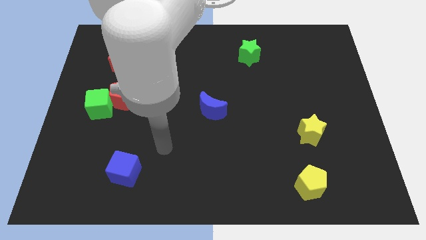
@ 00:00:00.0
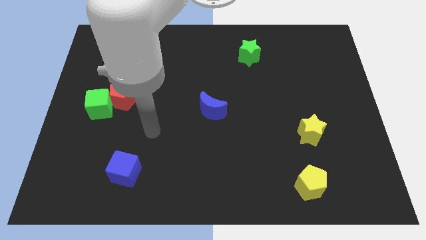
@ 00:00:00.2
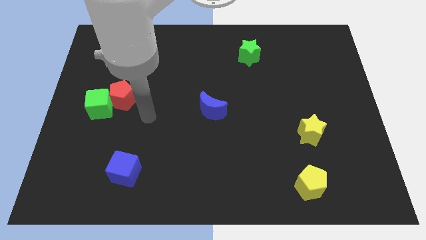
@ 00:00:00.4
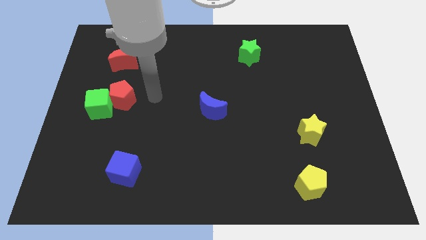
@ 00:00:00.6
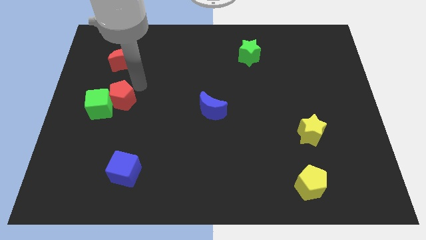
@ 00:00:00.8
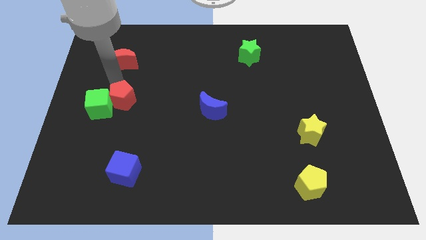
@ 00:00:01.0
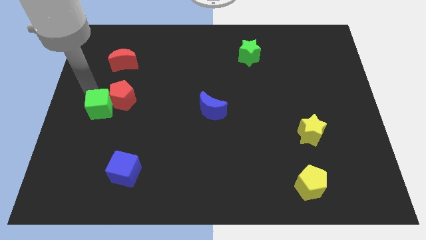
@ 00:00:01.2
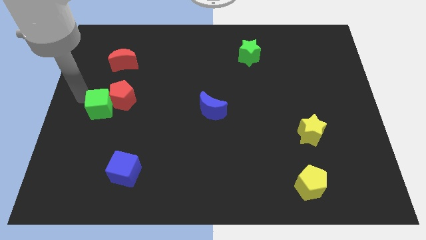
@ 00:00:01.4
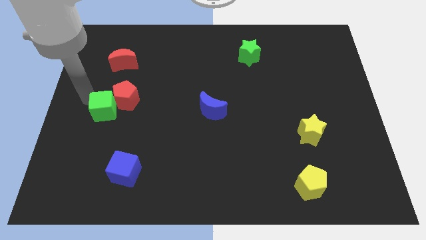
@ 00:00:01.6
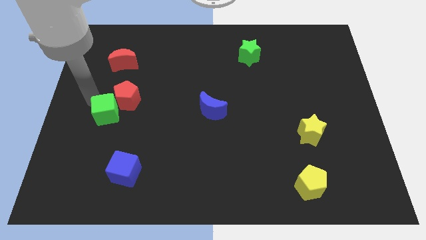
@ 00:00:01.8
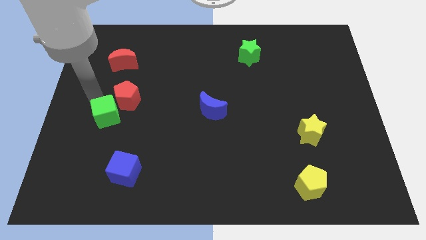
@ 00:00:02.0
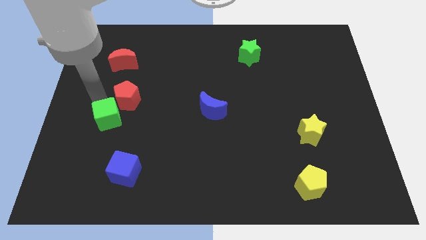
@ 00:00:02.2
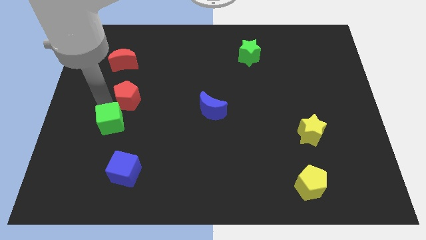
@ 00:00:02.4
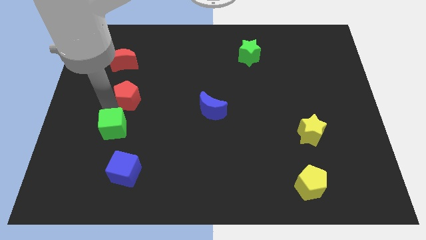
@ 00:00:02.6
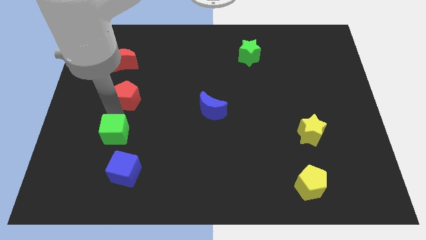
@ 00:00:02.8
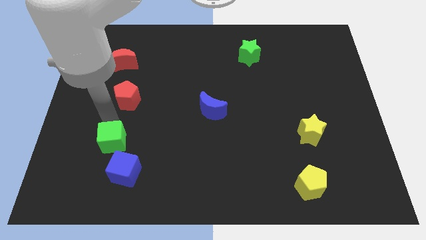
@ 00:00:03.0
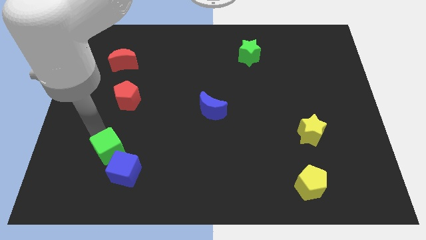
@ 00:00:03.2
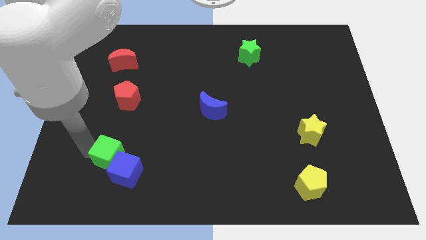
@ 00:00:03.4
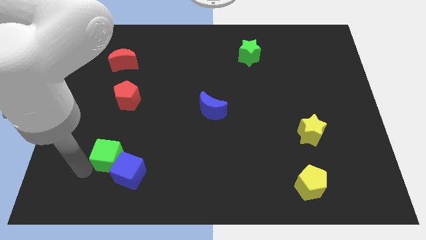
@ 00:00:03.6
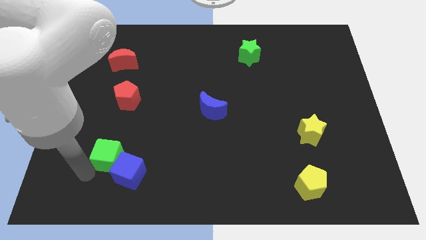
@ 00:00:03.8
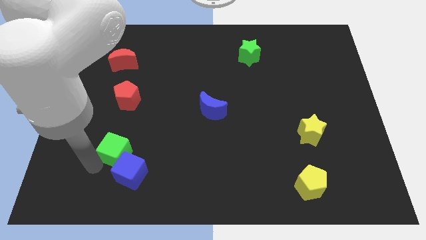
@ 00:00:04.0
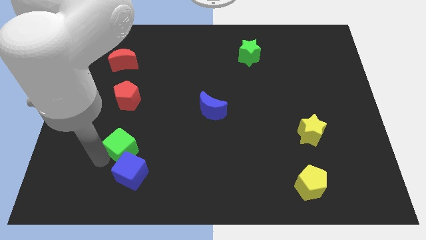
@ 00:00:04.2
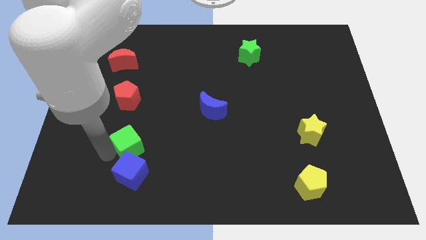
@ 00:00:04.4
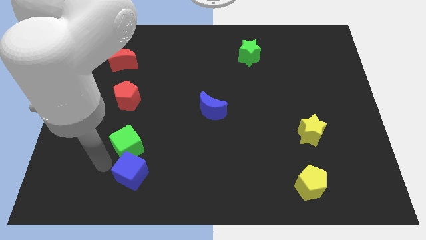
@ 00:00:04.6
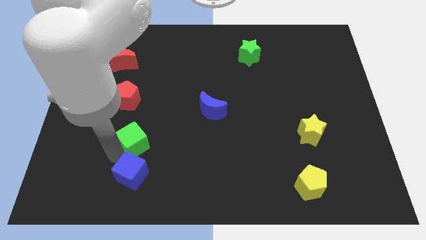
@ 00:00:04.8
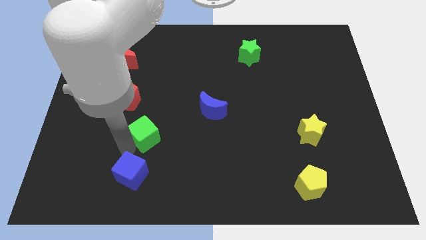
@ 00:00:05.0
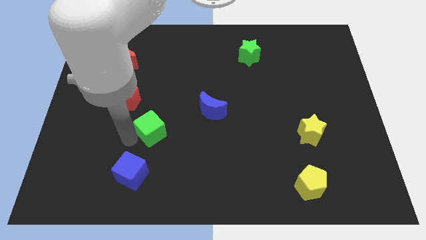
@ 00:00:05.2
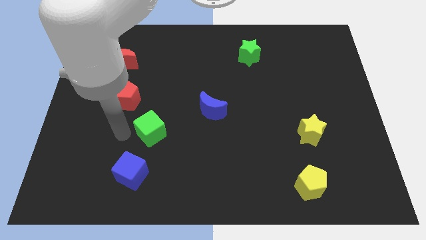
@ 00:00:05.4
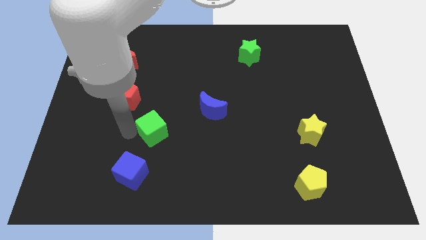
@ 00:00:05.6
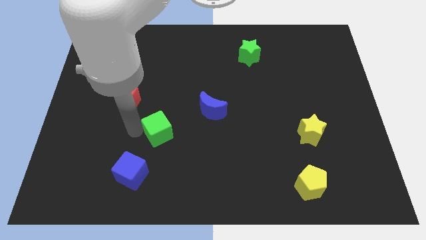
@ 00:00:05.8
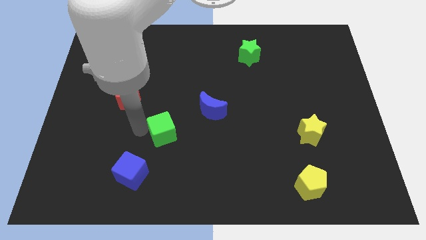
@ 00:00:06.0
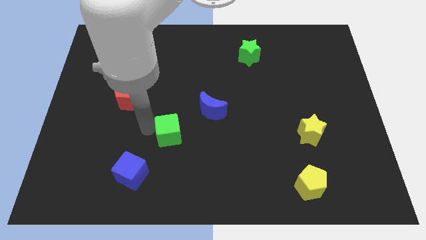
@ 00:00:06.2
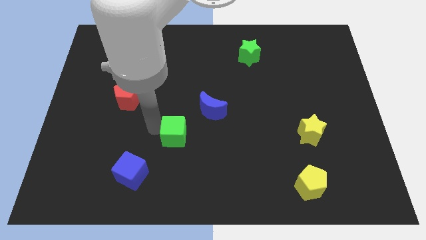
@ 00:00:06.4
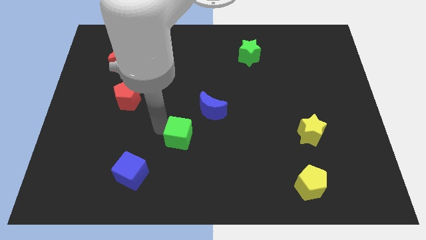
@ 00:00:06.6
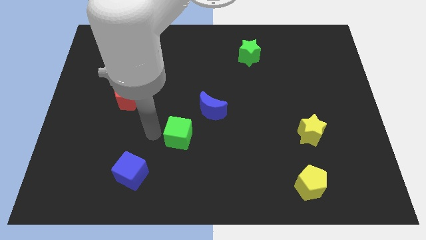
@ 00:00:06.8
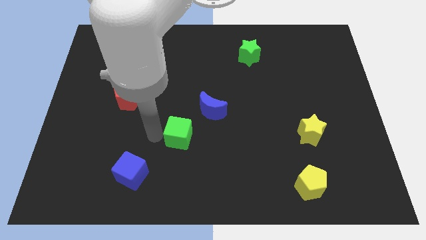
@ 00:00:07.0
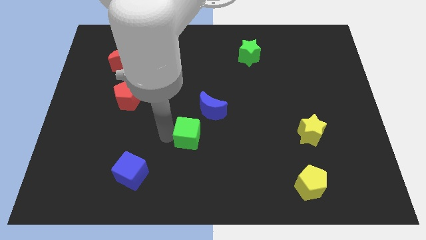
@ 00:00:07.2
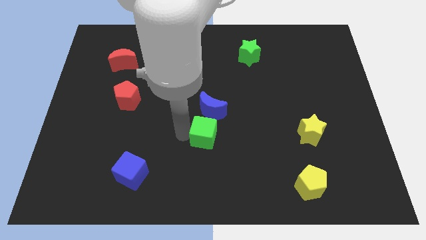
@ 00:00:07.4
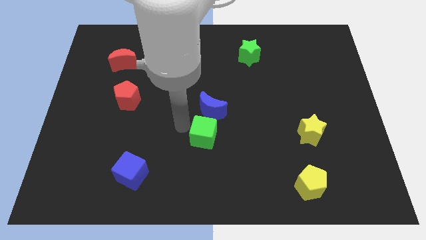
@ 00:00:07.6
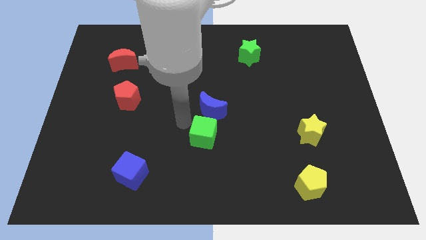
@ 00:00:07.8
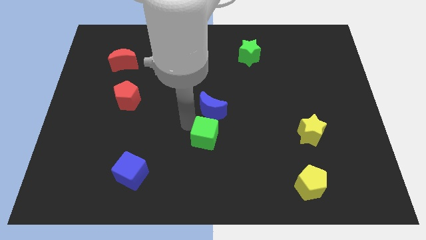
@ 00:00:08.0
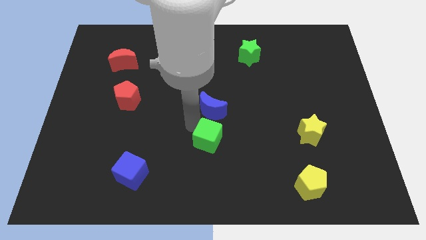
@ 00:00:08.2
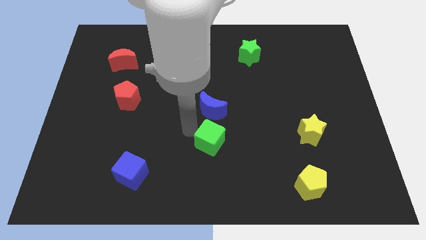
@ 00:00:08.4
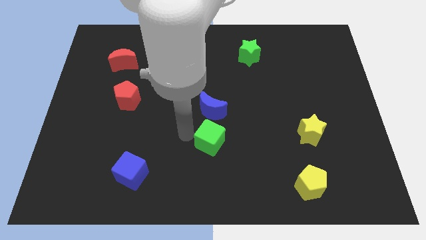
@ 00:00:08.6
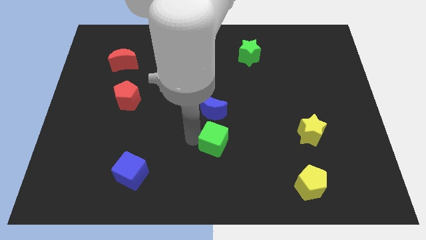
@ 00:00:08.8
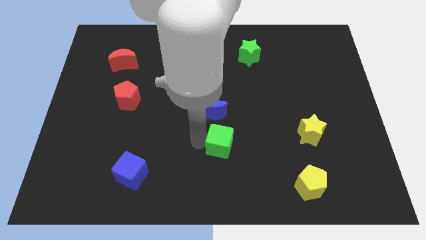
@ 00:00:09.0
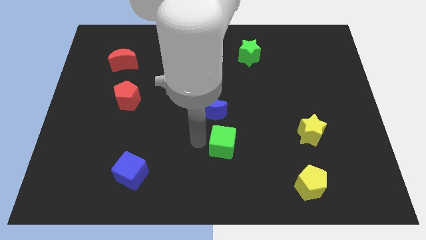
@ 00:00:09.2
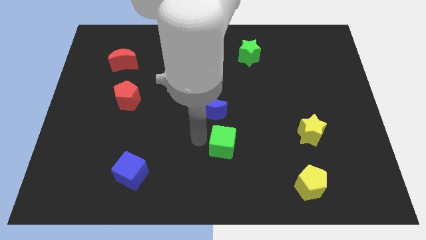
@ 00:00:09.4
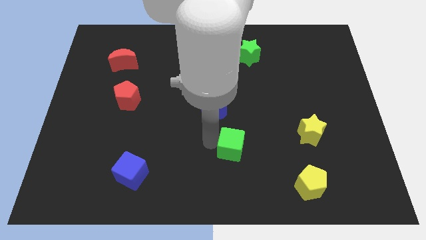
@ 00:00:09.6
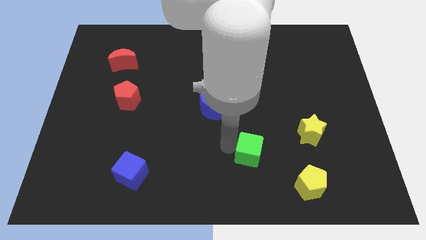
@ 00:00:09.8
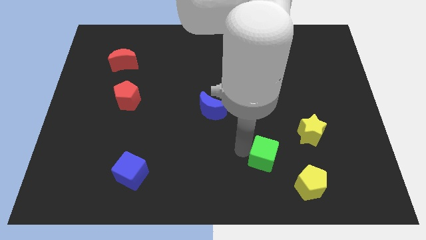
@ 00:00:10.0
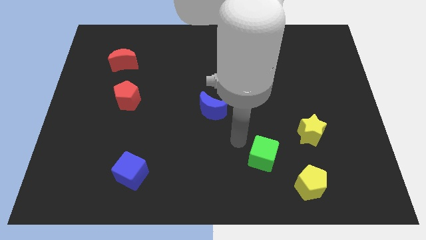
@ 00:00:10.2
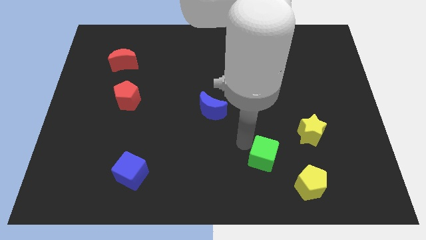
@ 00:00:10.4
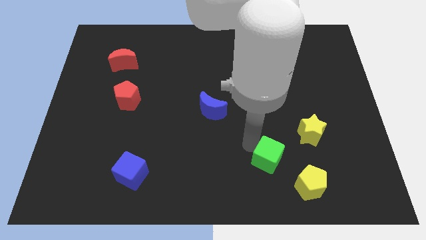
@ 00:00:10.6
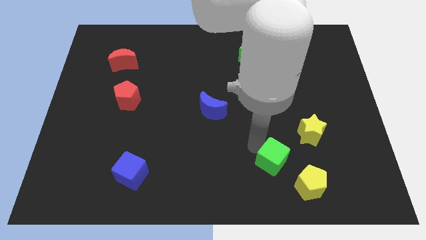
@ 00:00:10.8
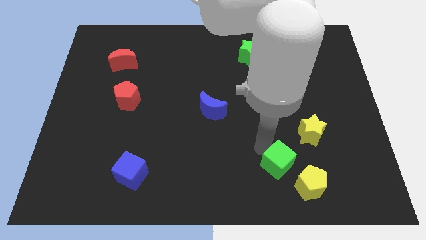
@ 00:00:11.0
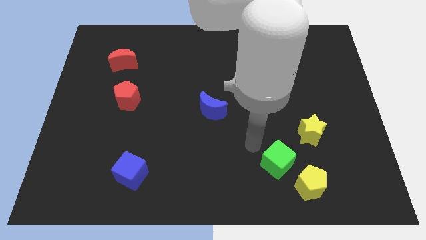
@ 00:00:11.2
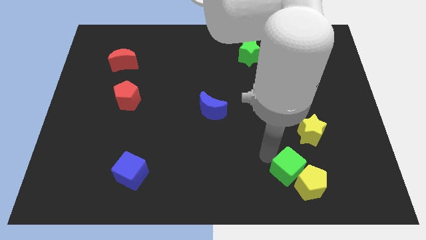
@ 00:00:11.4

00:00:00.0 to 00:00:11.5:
move the green cube towards the yellow pentagon

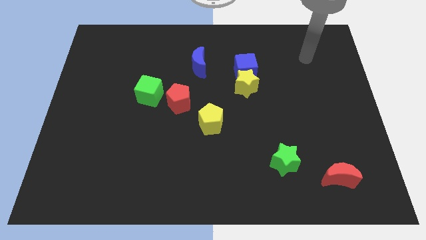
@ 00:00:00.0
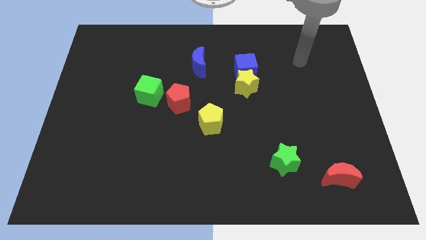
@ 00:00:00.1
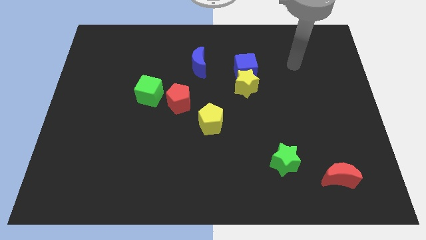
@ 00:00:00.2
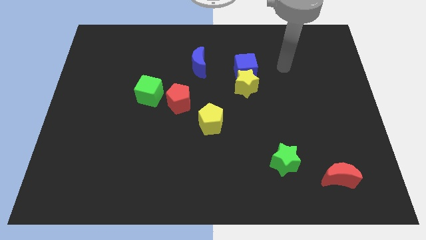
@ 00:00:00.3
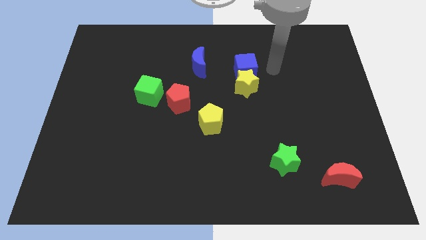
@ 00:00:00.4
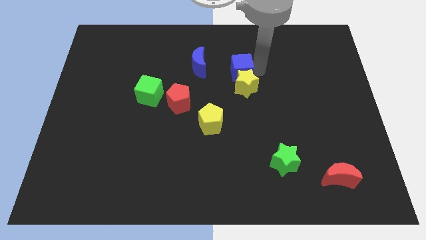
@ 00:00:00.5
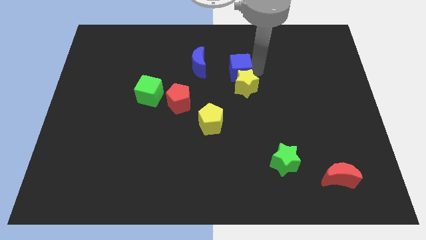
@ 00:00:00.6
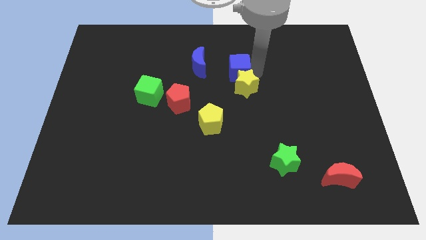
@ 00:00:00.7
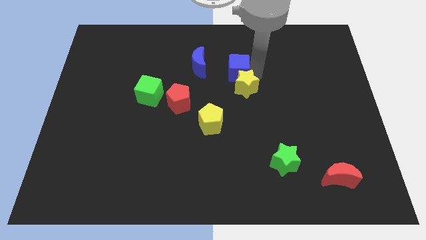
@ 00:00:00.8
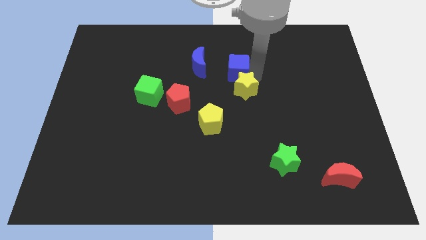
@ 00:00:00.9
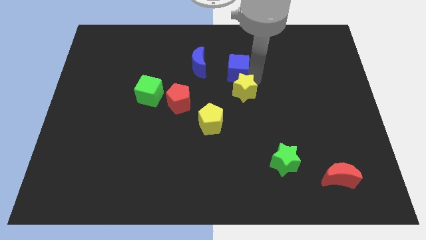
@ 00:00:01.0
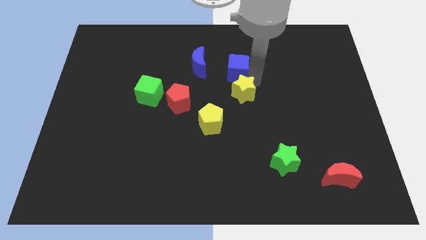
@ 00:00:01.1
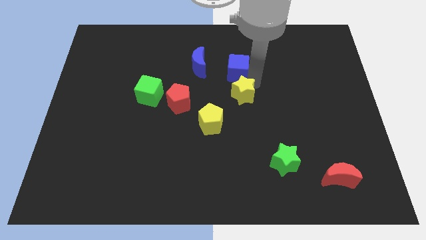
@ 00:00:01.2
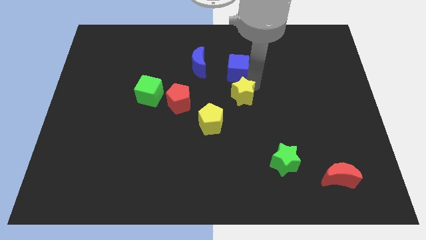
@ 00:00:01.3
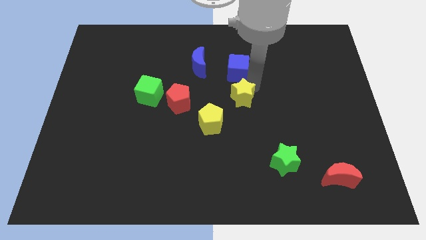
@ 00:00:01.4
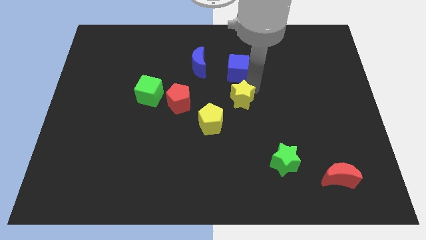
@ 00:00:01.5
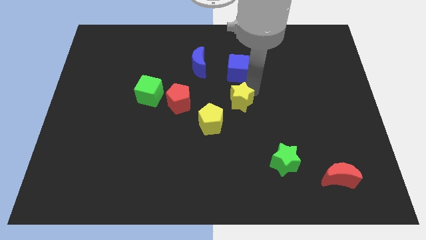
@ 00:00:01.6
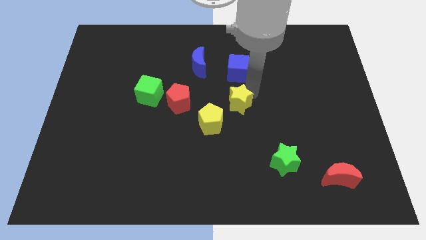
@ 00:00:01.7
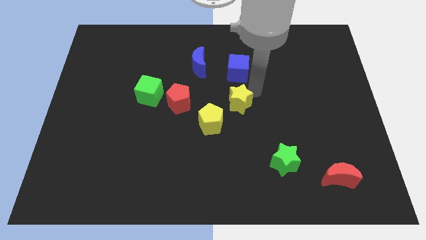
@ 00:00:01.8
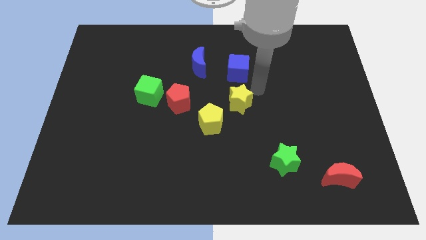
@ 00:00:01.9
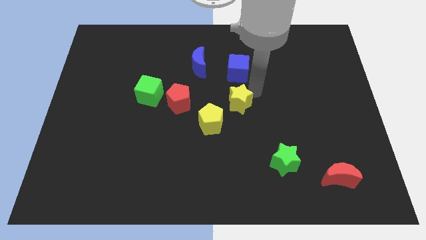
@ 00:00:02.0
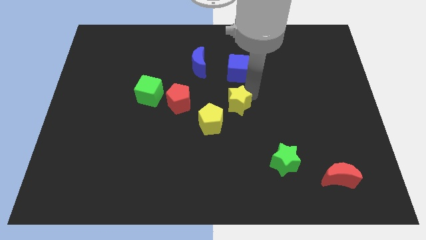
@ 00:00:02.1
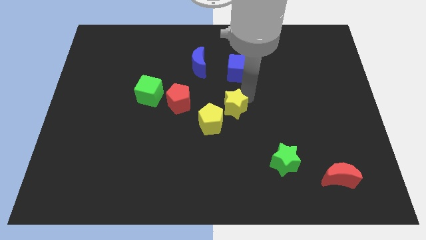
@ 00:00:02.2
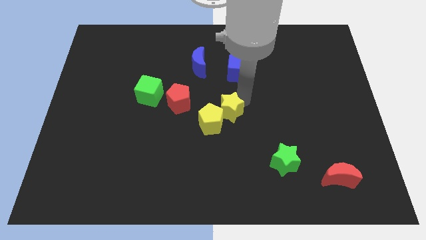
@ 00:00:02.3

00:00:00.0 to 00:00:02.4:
push the yellow star towards the yellow pentagon

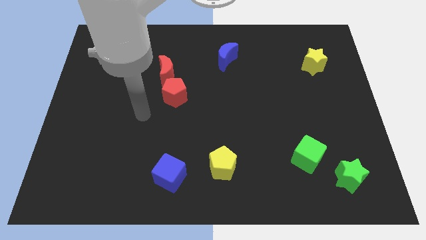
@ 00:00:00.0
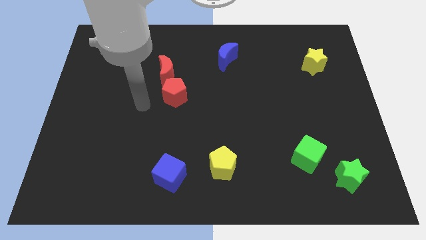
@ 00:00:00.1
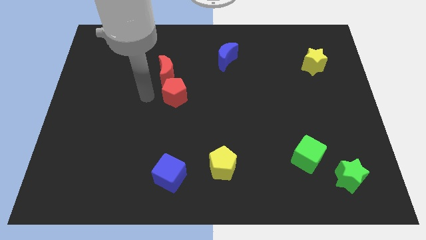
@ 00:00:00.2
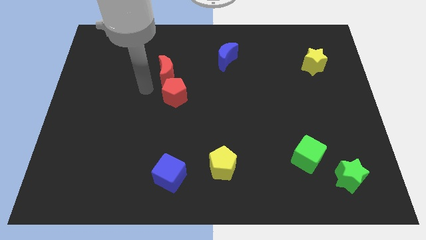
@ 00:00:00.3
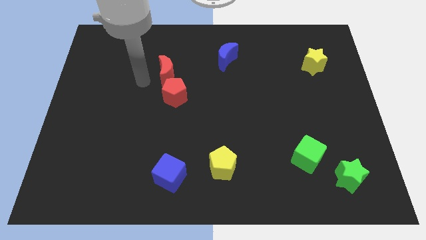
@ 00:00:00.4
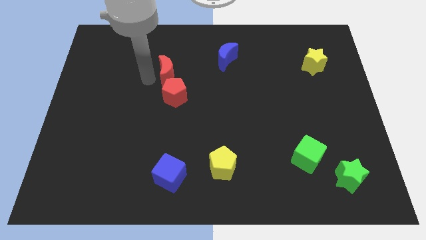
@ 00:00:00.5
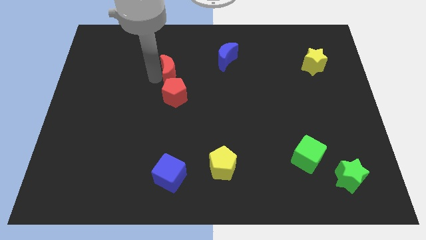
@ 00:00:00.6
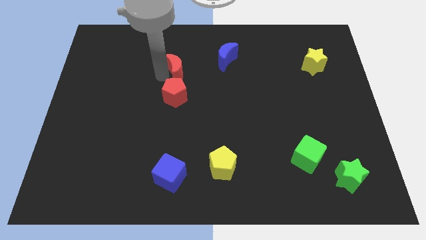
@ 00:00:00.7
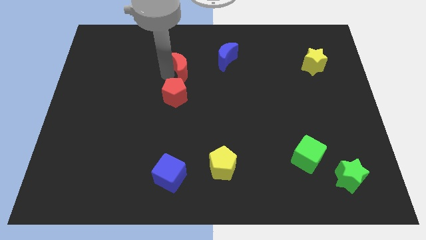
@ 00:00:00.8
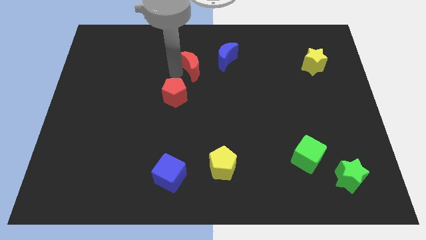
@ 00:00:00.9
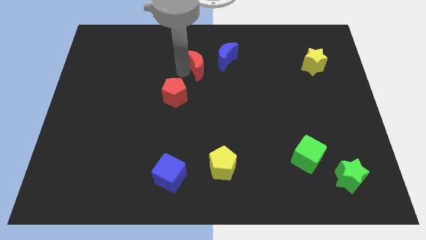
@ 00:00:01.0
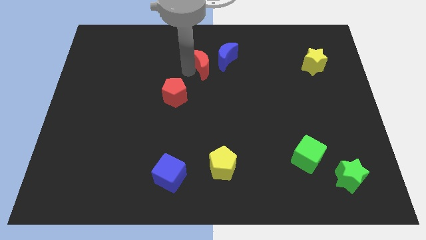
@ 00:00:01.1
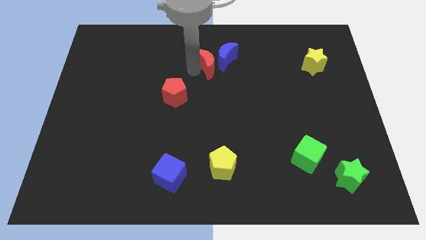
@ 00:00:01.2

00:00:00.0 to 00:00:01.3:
push the red moon towards the blue moon
